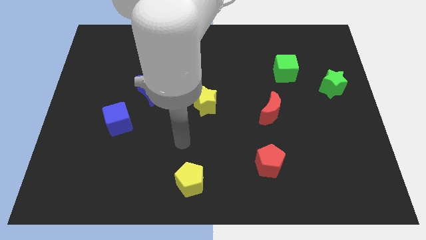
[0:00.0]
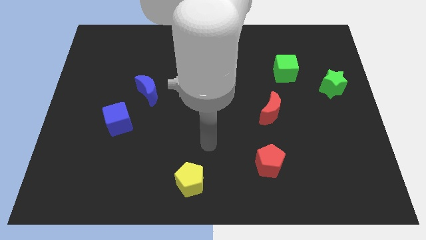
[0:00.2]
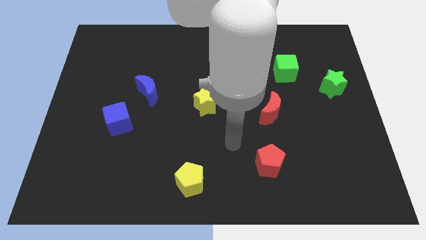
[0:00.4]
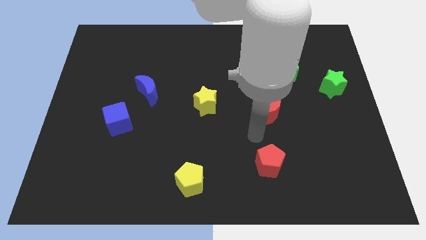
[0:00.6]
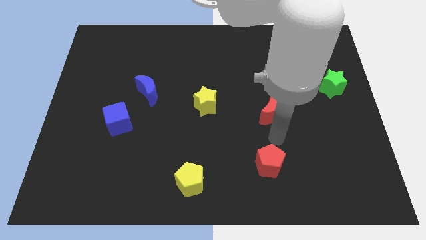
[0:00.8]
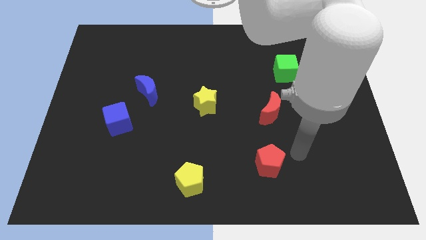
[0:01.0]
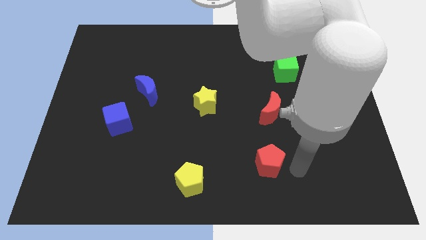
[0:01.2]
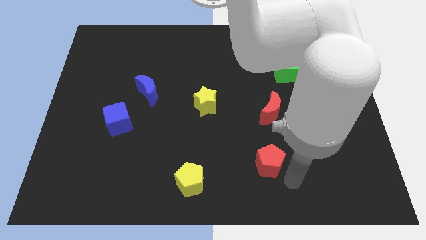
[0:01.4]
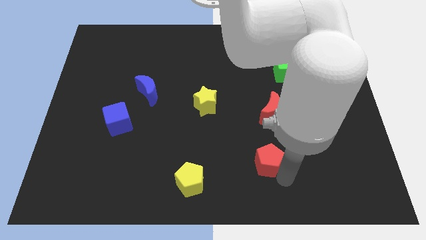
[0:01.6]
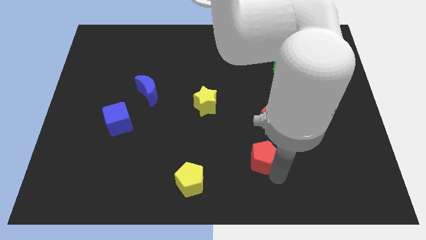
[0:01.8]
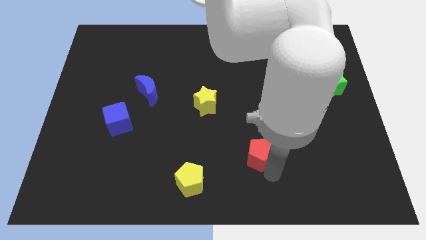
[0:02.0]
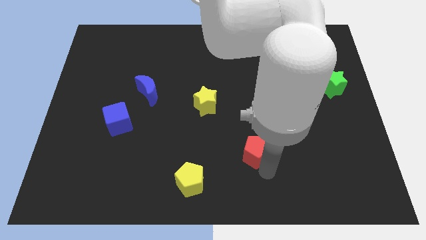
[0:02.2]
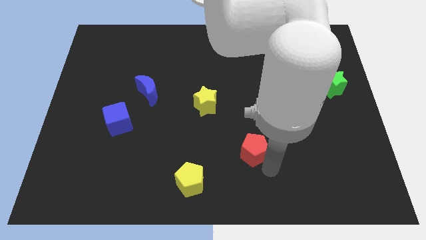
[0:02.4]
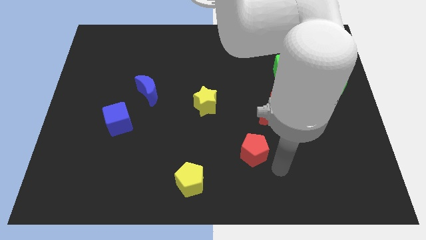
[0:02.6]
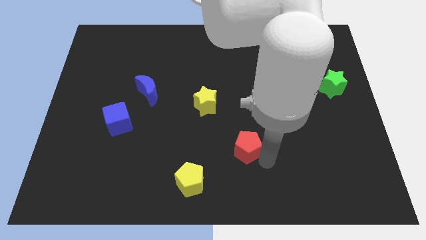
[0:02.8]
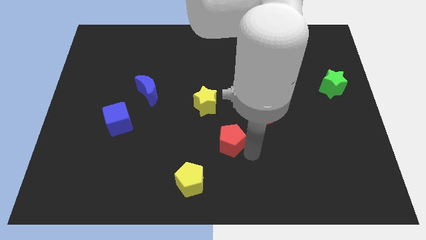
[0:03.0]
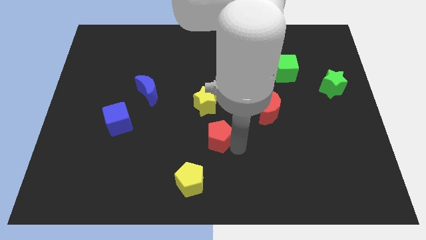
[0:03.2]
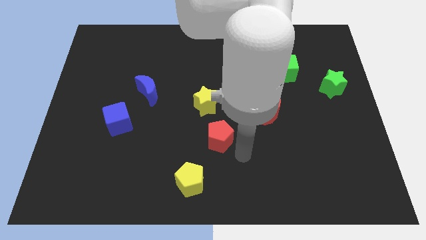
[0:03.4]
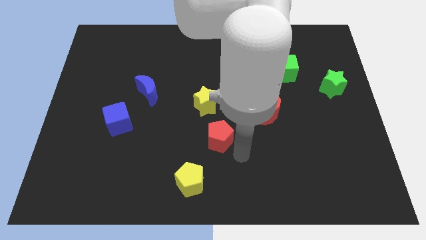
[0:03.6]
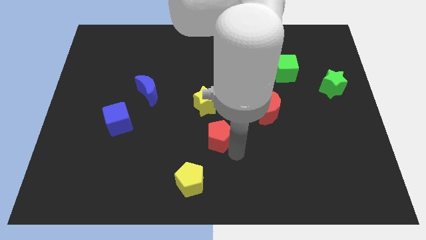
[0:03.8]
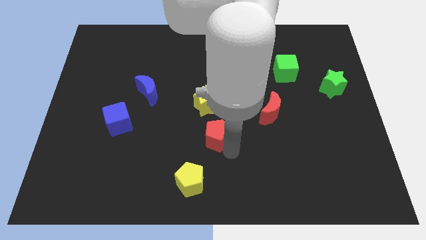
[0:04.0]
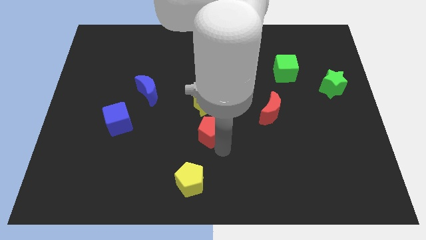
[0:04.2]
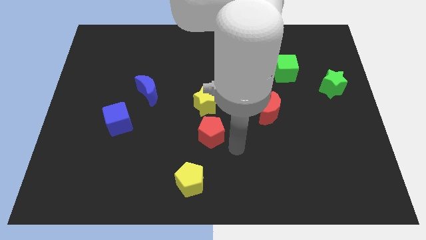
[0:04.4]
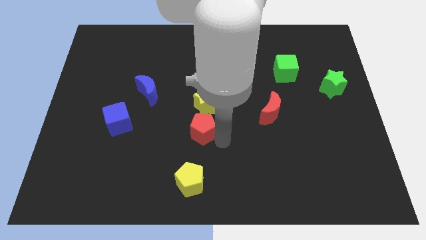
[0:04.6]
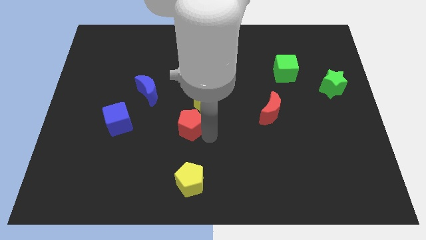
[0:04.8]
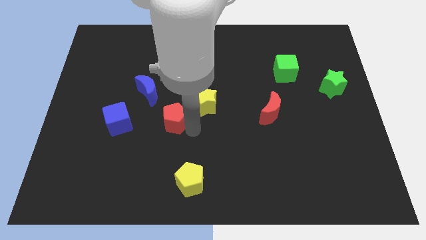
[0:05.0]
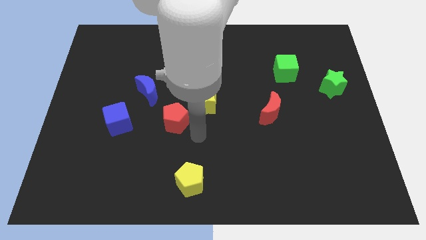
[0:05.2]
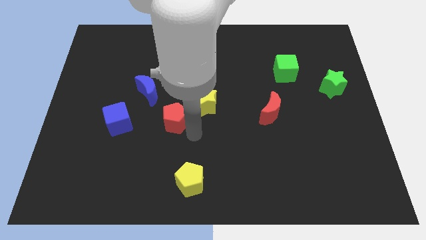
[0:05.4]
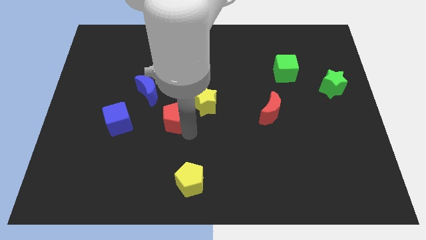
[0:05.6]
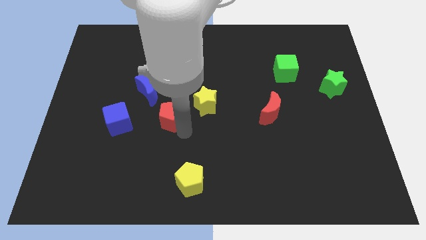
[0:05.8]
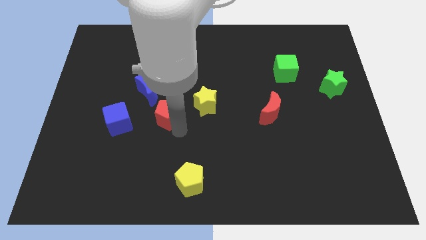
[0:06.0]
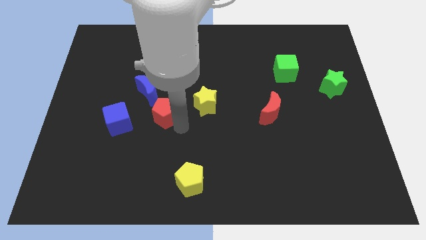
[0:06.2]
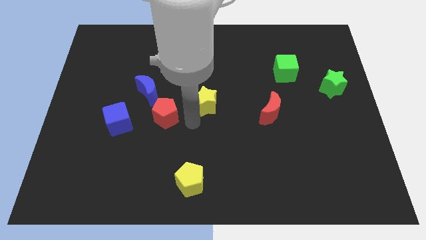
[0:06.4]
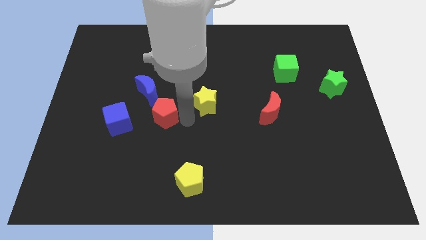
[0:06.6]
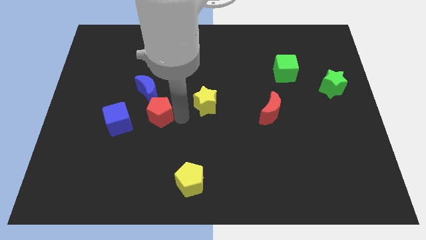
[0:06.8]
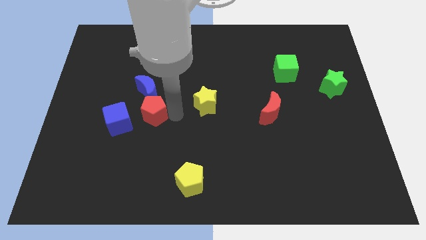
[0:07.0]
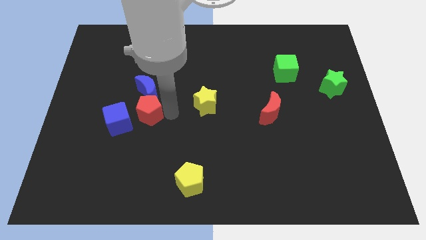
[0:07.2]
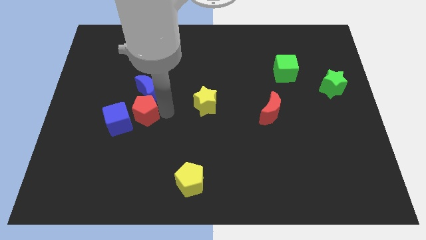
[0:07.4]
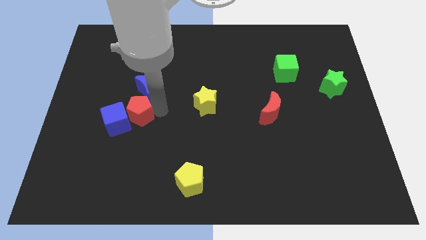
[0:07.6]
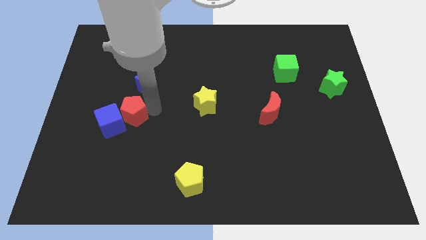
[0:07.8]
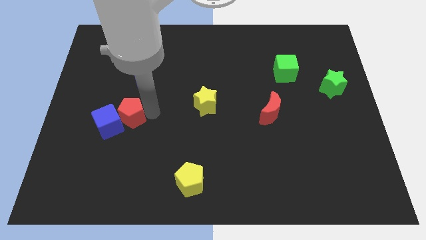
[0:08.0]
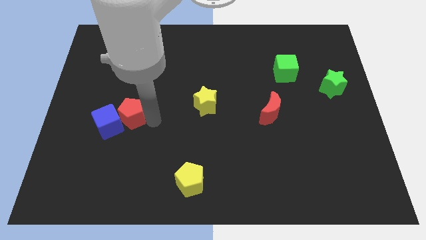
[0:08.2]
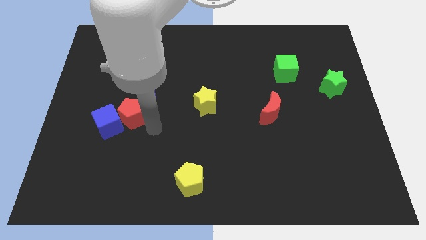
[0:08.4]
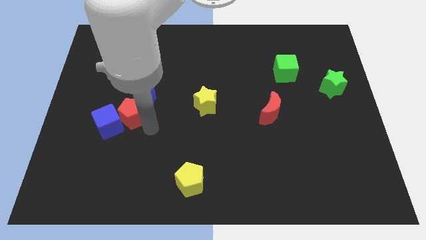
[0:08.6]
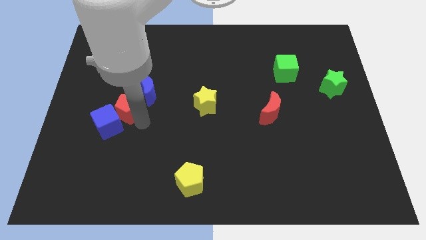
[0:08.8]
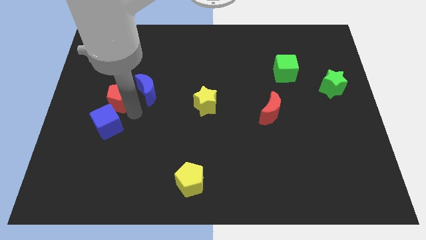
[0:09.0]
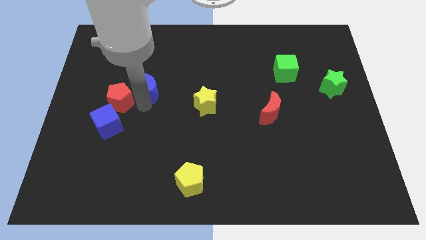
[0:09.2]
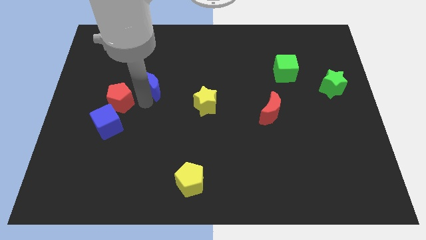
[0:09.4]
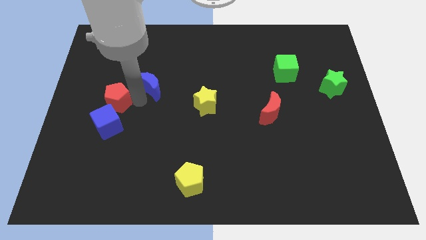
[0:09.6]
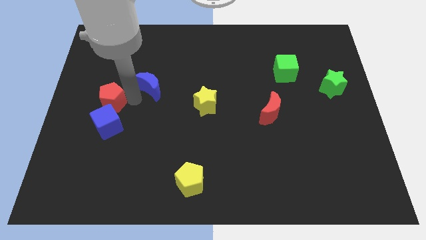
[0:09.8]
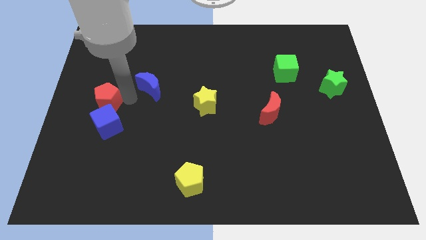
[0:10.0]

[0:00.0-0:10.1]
push the red pentagon to the left side of the board

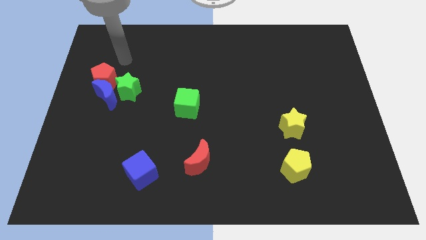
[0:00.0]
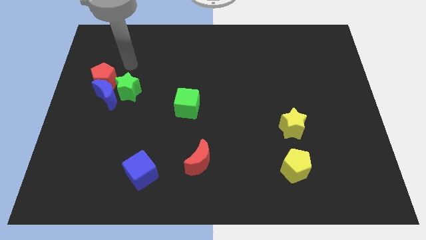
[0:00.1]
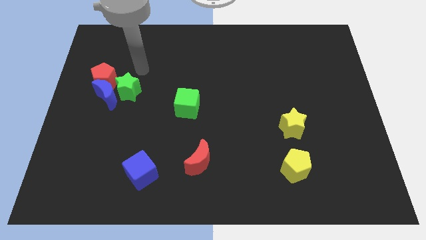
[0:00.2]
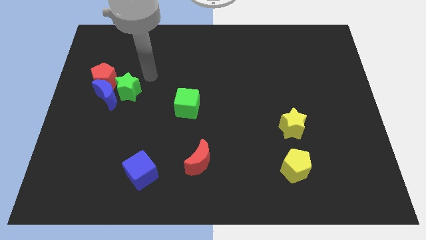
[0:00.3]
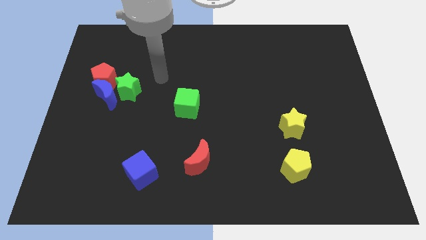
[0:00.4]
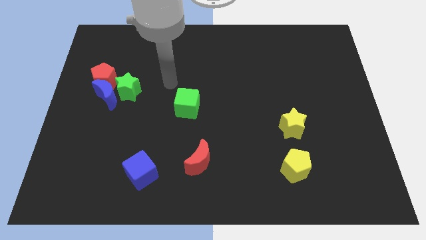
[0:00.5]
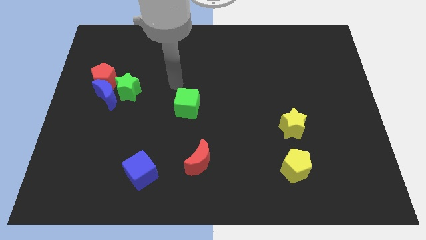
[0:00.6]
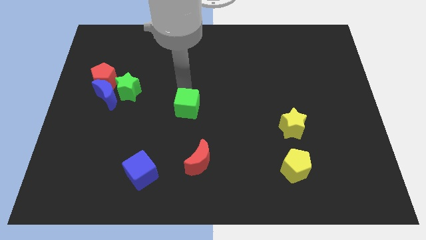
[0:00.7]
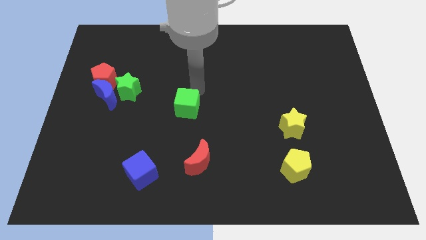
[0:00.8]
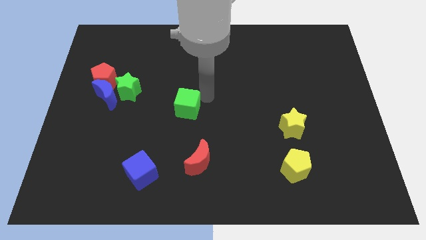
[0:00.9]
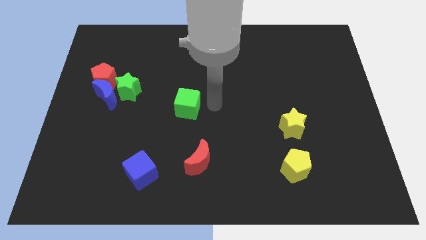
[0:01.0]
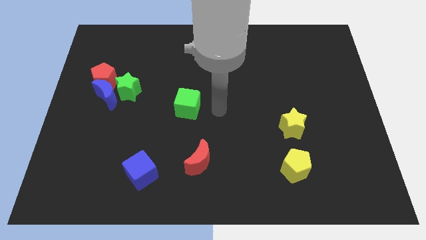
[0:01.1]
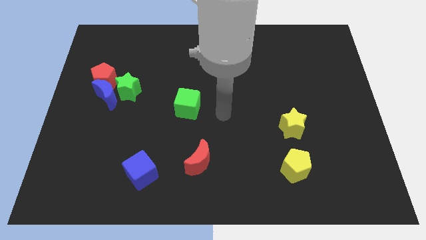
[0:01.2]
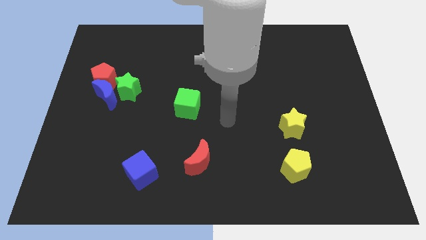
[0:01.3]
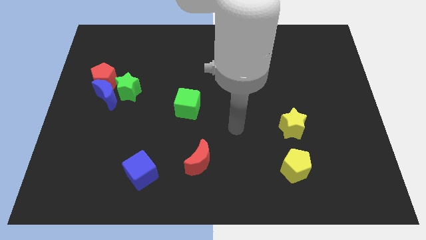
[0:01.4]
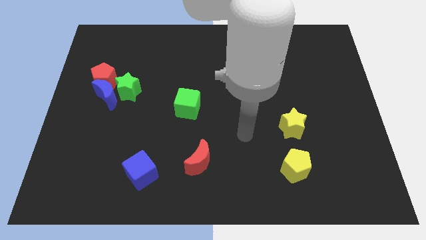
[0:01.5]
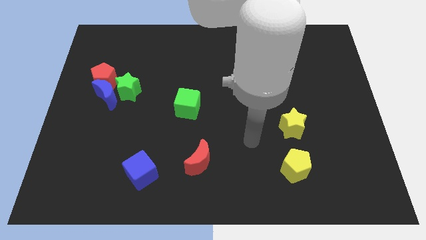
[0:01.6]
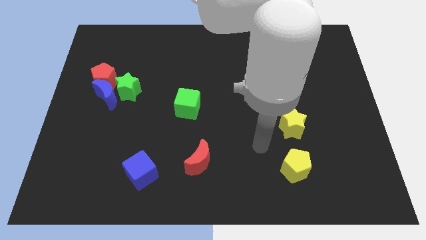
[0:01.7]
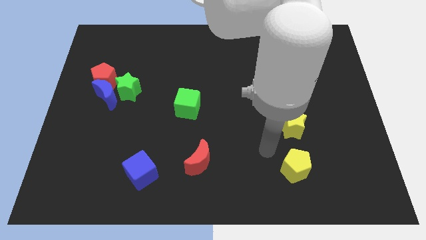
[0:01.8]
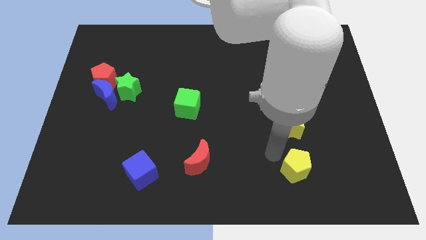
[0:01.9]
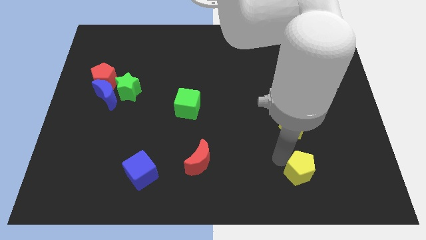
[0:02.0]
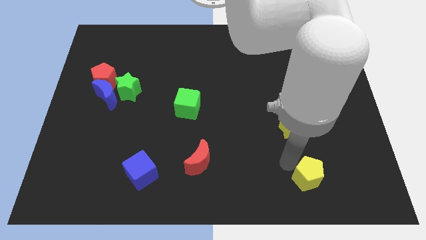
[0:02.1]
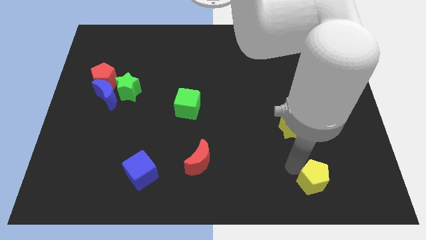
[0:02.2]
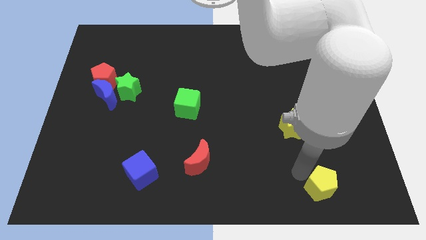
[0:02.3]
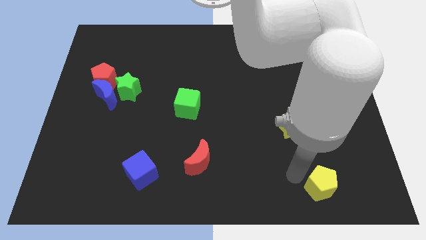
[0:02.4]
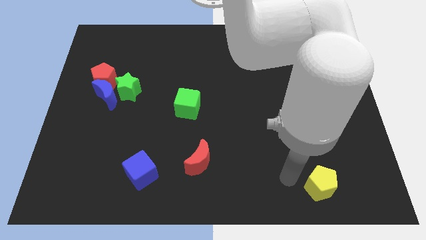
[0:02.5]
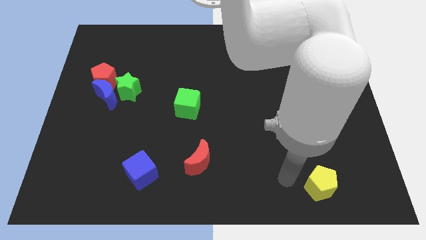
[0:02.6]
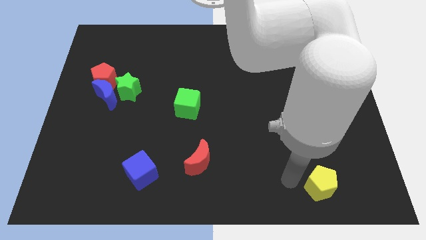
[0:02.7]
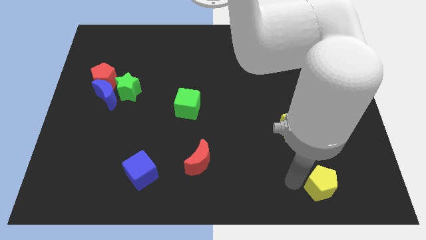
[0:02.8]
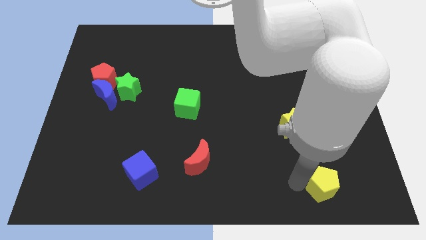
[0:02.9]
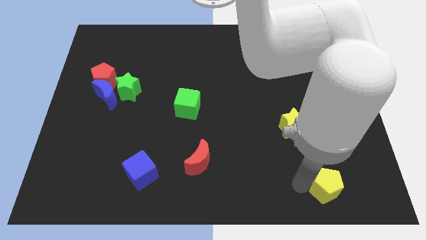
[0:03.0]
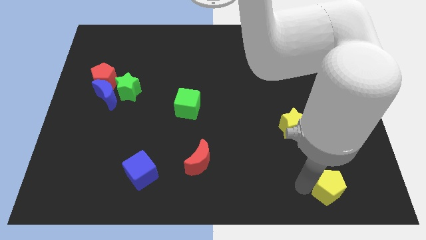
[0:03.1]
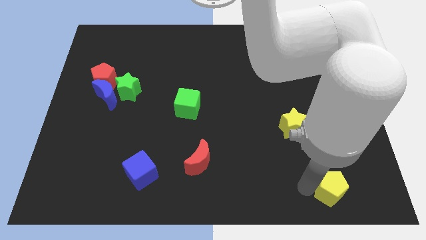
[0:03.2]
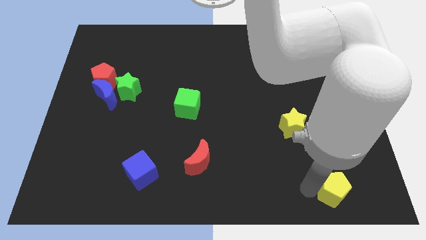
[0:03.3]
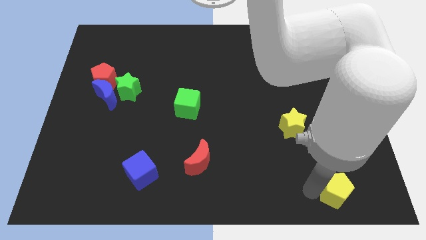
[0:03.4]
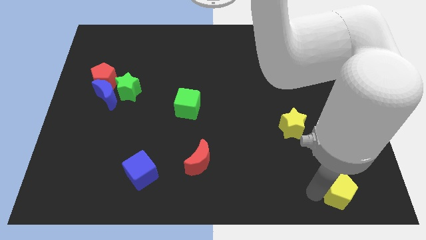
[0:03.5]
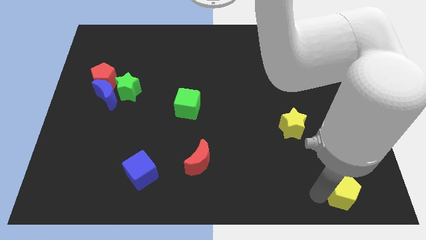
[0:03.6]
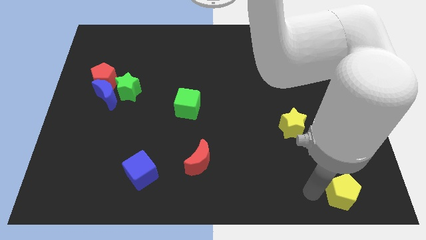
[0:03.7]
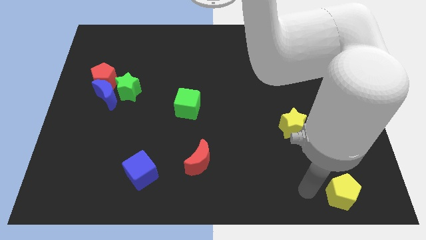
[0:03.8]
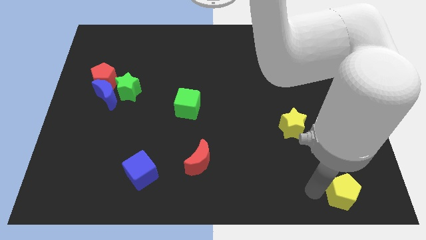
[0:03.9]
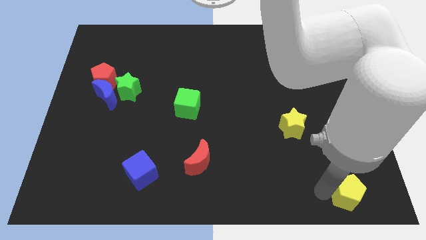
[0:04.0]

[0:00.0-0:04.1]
slide the yellow pentagon to the bottom right
